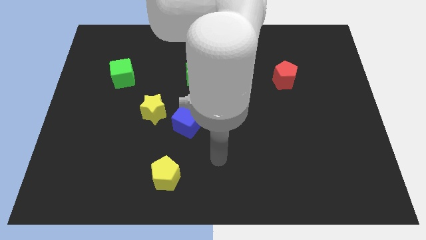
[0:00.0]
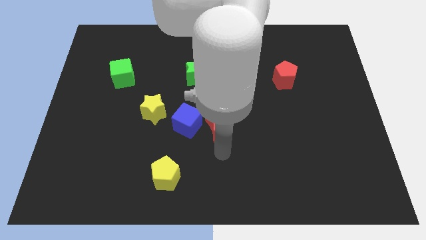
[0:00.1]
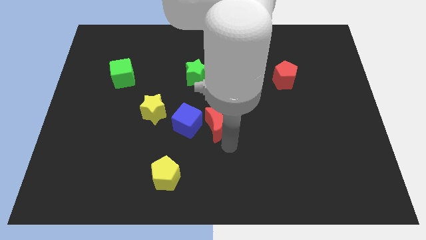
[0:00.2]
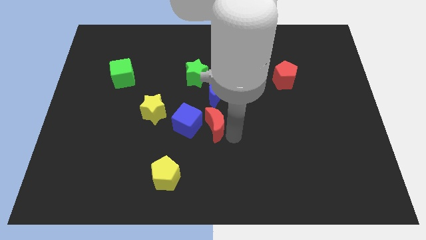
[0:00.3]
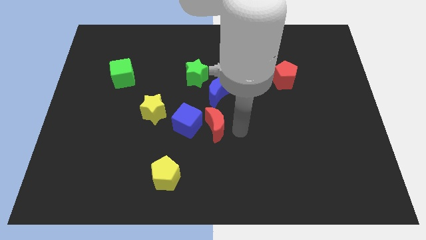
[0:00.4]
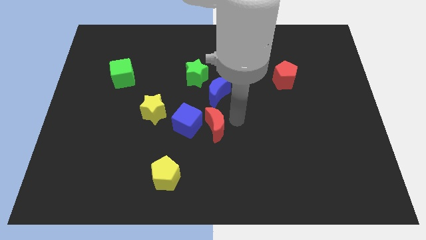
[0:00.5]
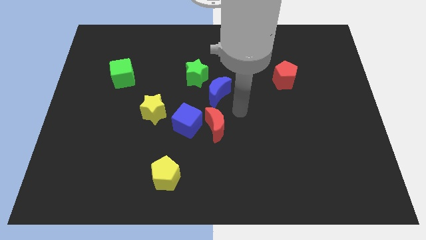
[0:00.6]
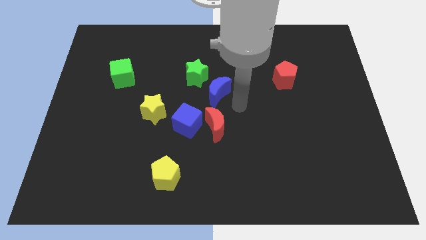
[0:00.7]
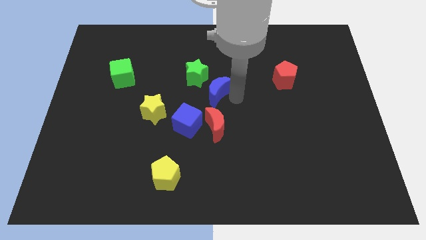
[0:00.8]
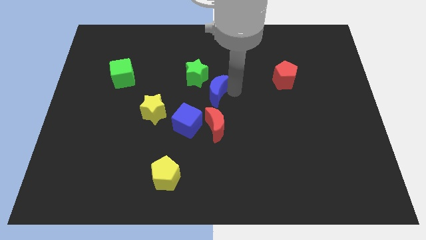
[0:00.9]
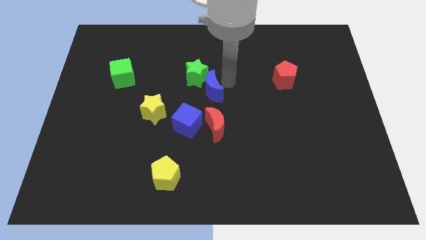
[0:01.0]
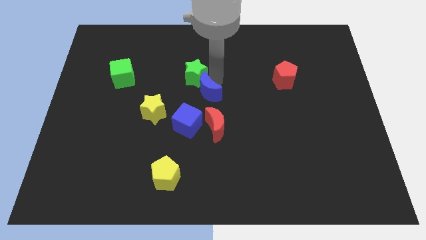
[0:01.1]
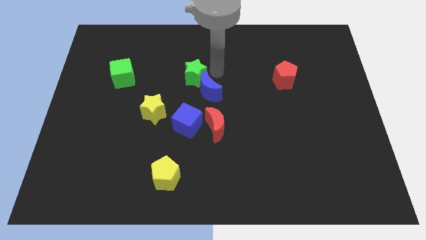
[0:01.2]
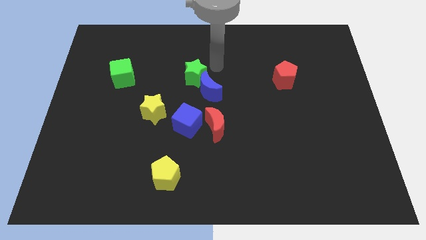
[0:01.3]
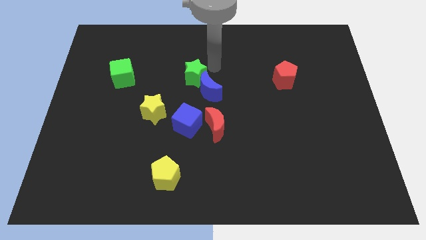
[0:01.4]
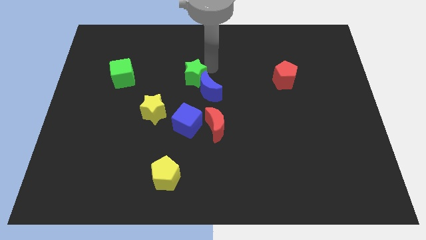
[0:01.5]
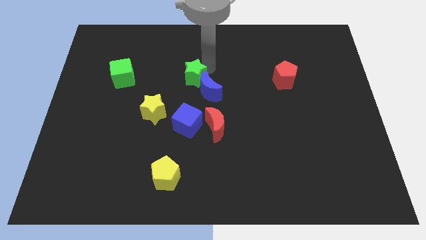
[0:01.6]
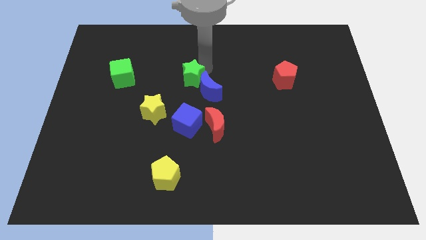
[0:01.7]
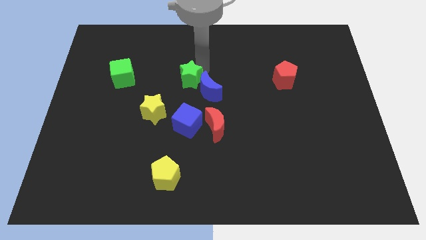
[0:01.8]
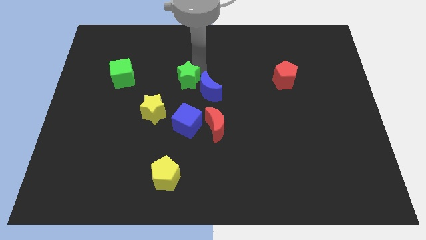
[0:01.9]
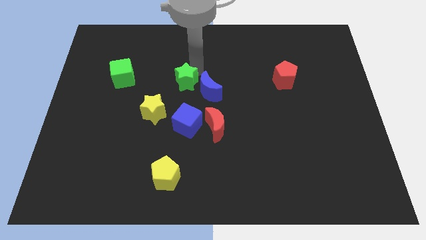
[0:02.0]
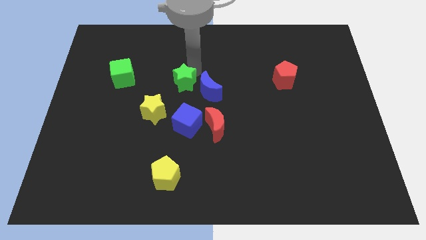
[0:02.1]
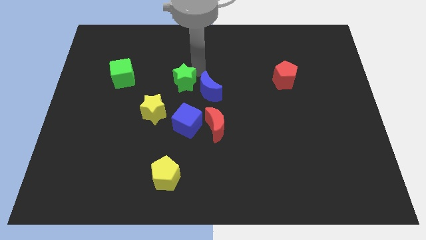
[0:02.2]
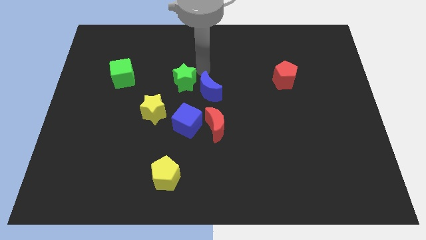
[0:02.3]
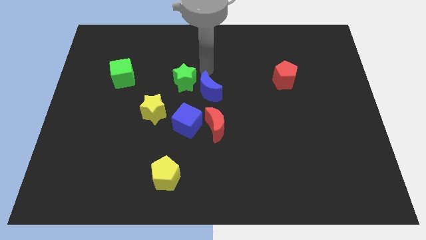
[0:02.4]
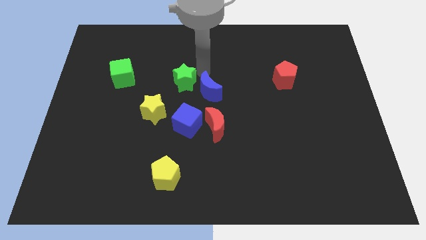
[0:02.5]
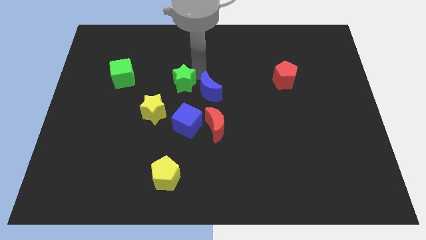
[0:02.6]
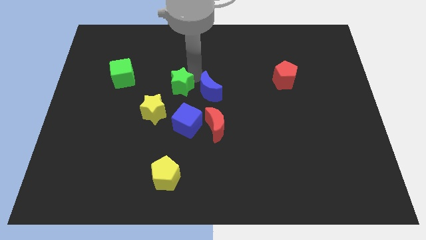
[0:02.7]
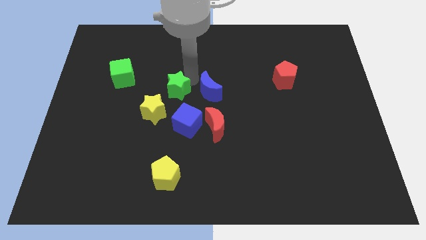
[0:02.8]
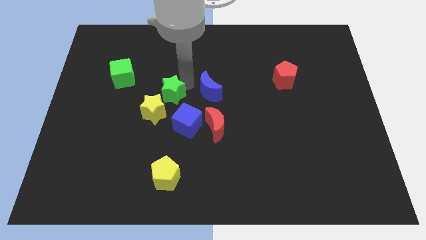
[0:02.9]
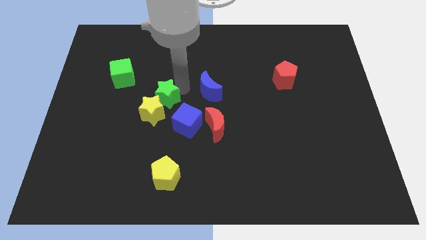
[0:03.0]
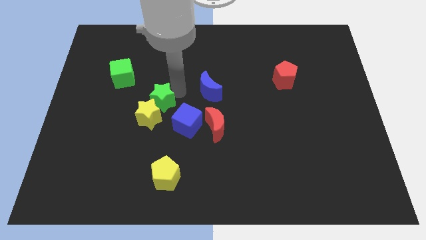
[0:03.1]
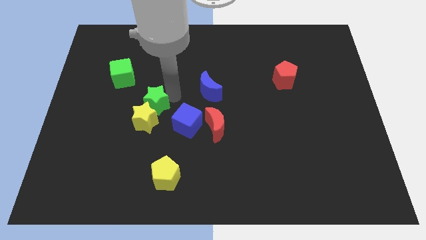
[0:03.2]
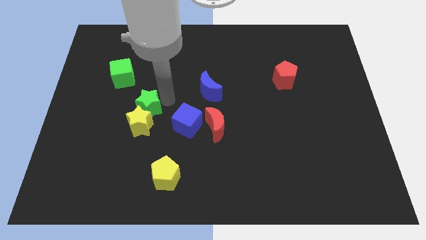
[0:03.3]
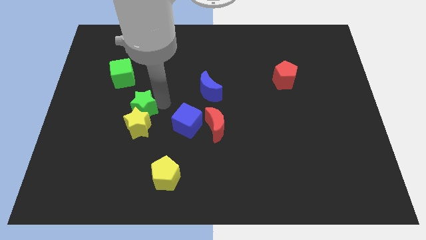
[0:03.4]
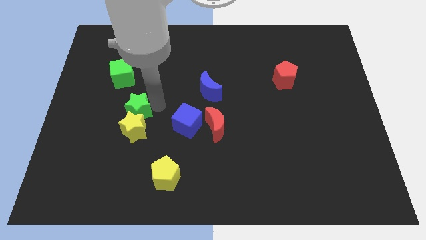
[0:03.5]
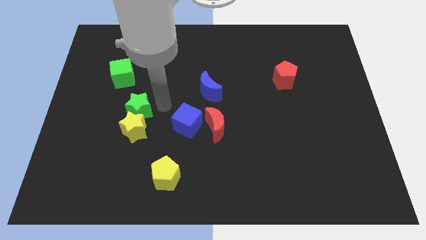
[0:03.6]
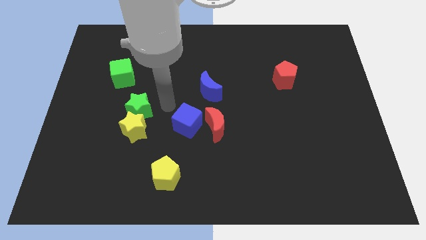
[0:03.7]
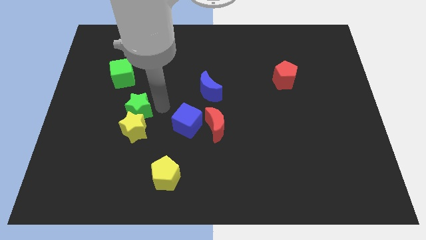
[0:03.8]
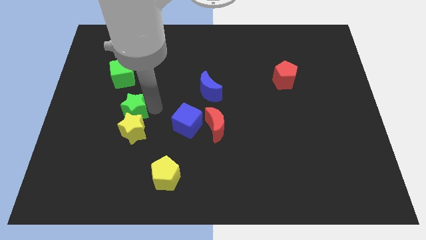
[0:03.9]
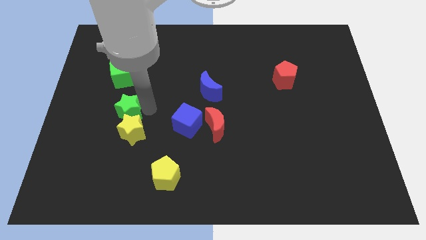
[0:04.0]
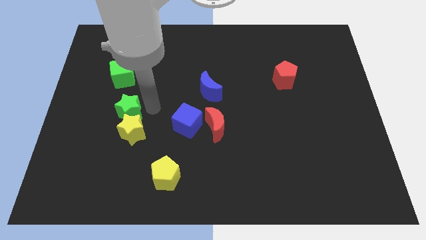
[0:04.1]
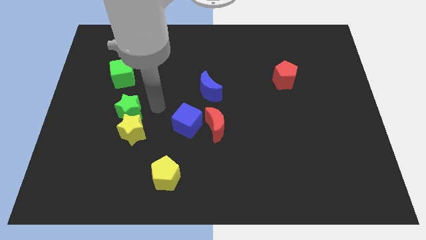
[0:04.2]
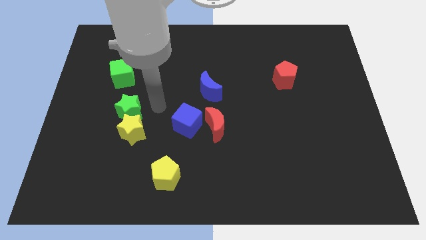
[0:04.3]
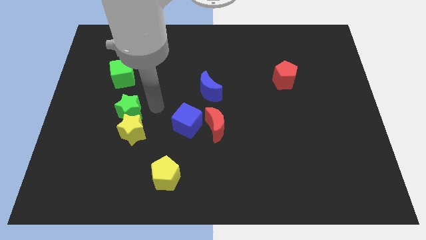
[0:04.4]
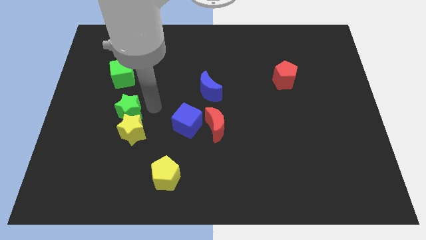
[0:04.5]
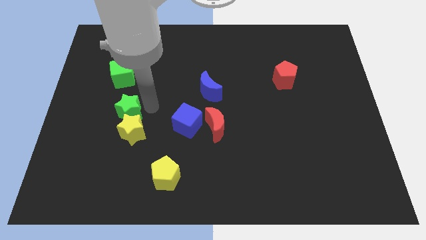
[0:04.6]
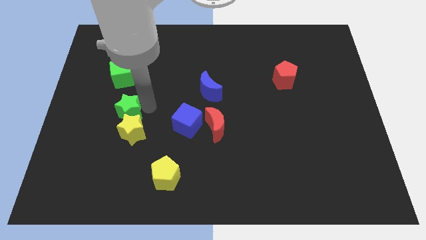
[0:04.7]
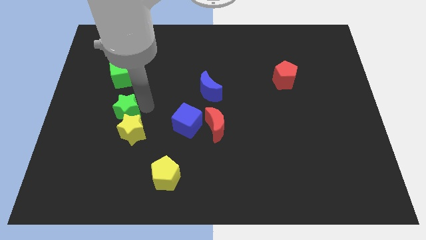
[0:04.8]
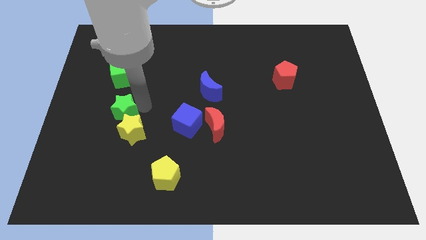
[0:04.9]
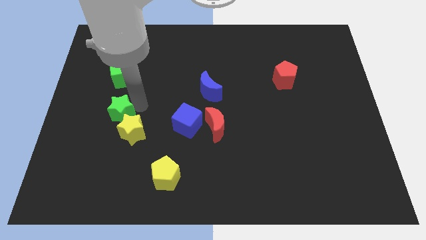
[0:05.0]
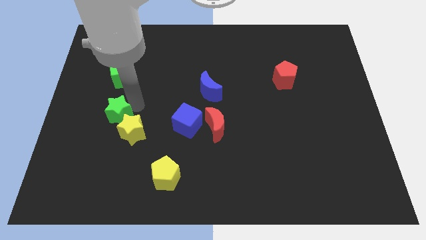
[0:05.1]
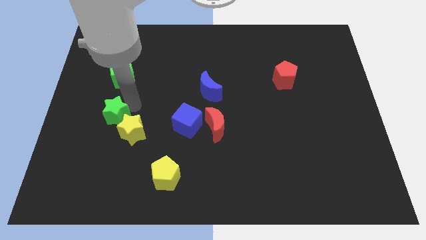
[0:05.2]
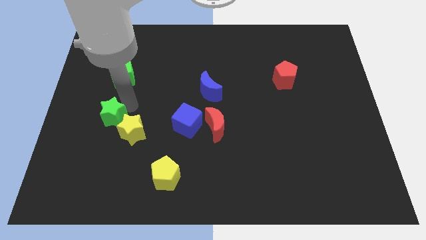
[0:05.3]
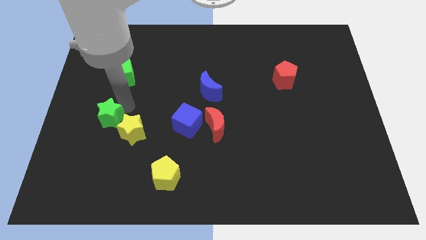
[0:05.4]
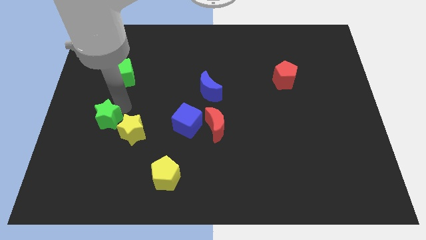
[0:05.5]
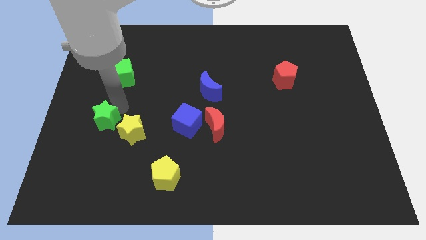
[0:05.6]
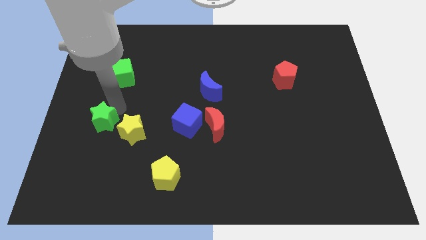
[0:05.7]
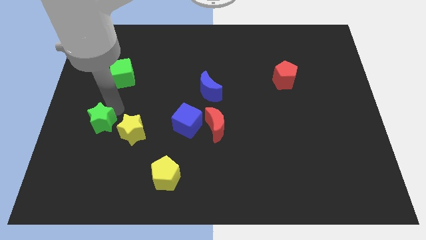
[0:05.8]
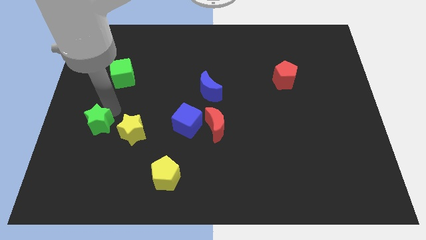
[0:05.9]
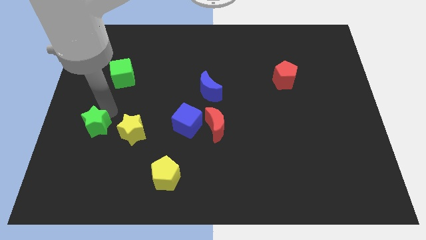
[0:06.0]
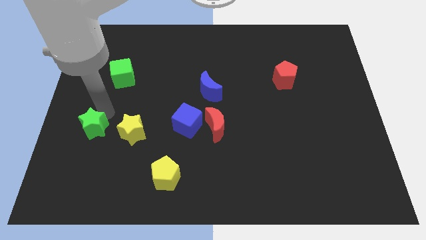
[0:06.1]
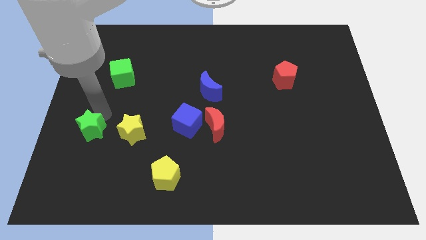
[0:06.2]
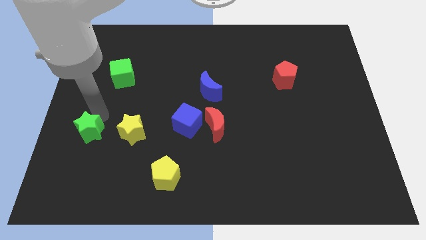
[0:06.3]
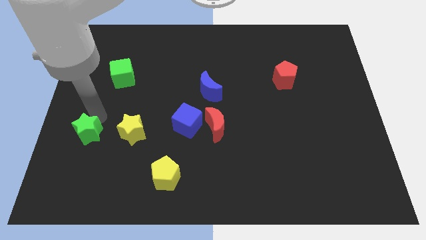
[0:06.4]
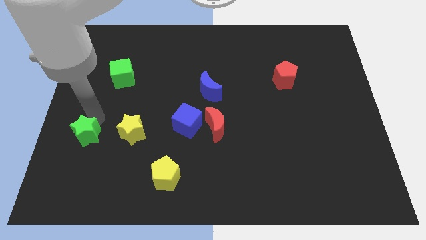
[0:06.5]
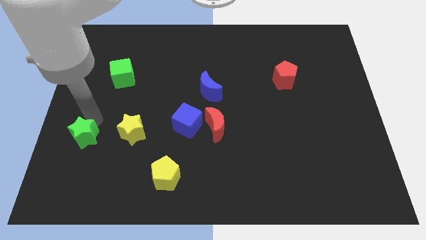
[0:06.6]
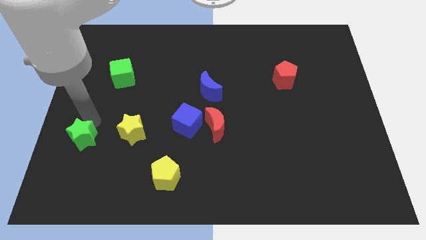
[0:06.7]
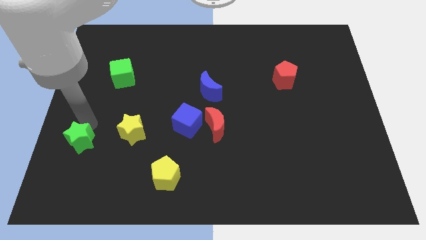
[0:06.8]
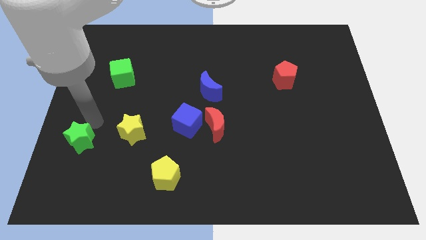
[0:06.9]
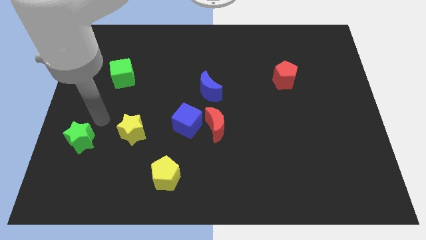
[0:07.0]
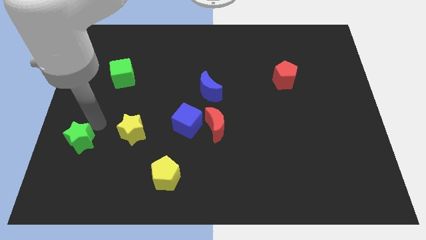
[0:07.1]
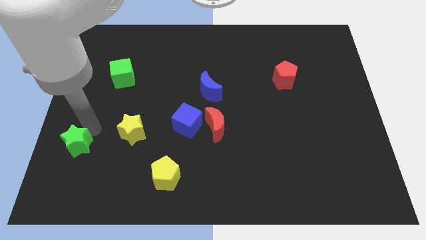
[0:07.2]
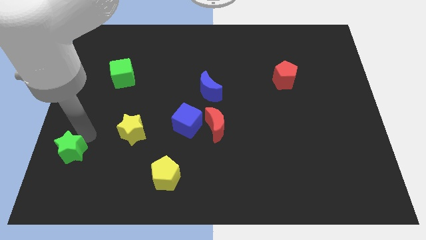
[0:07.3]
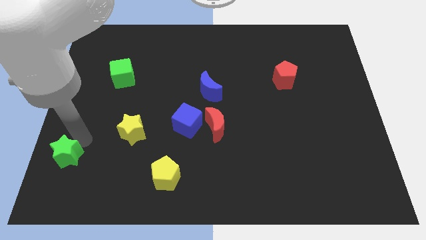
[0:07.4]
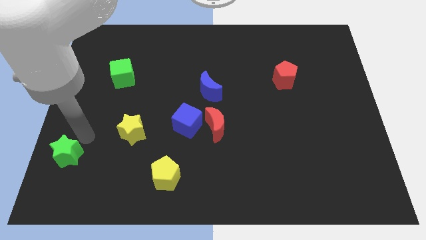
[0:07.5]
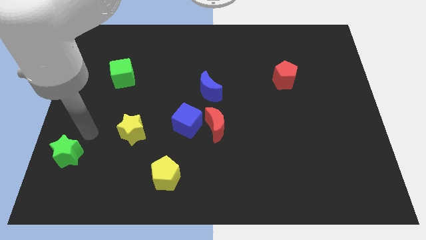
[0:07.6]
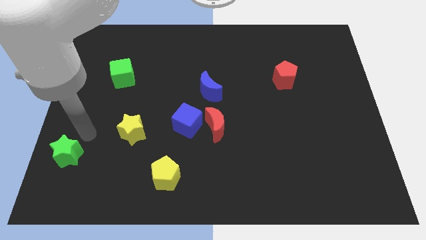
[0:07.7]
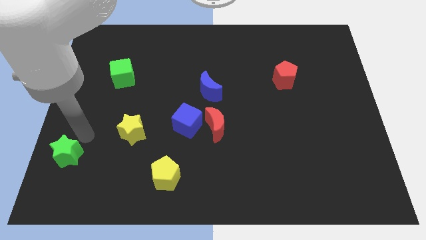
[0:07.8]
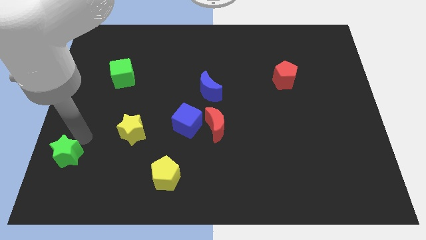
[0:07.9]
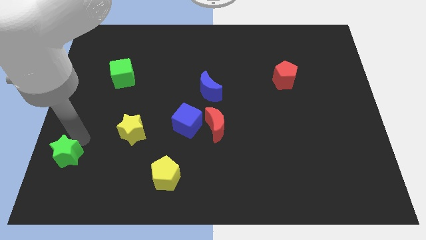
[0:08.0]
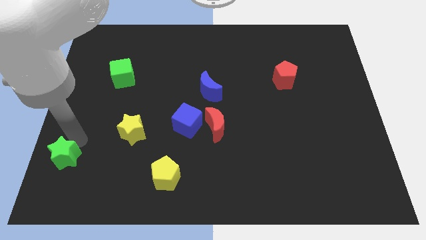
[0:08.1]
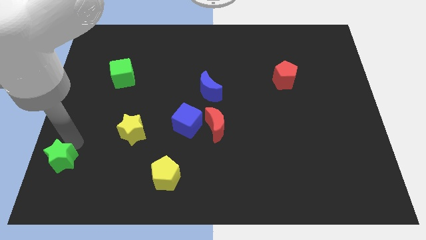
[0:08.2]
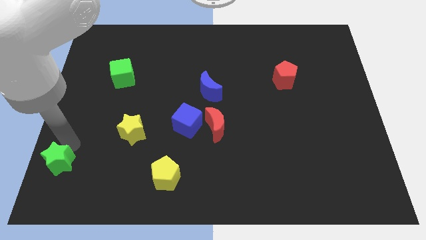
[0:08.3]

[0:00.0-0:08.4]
slide the green star to the lower left corner
